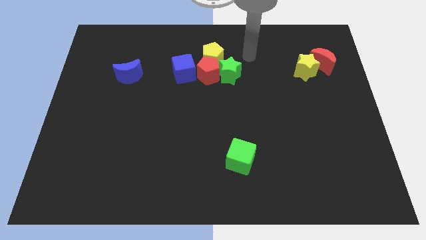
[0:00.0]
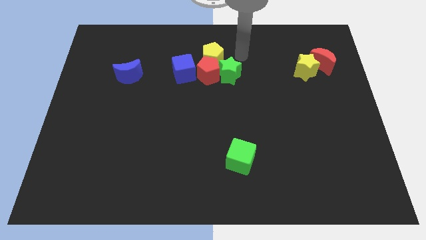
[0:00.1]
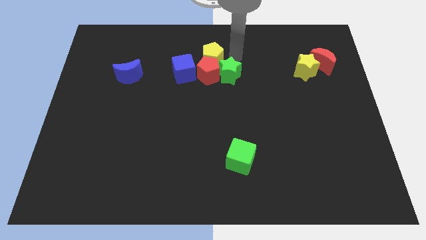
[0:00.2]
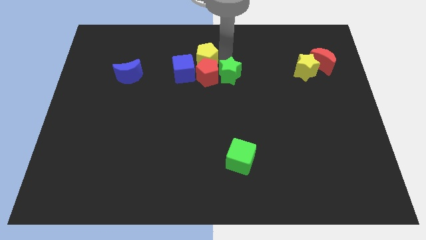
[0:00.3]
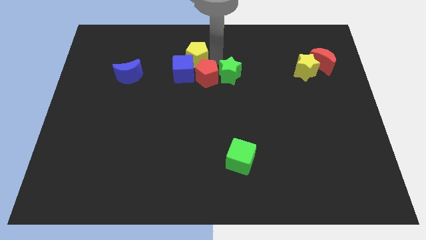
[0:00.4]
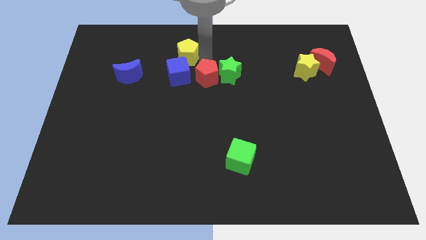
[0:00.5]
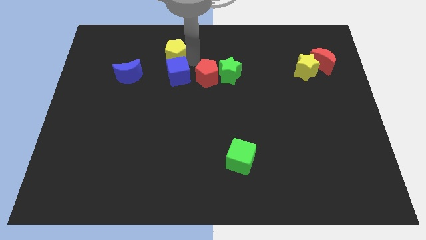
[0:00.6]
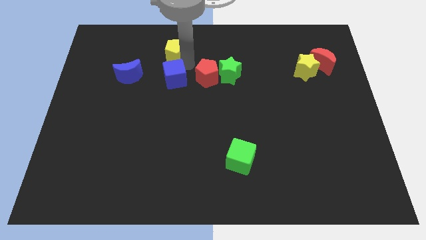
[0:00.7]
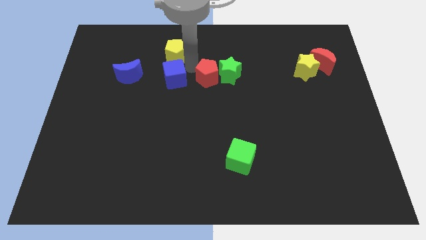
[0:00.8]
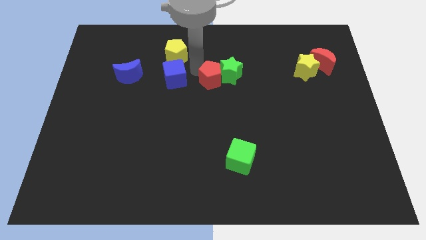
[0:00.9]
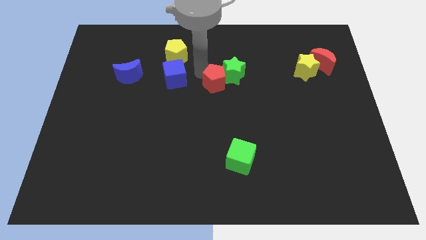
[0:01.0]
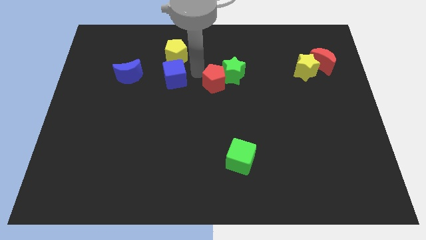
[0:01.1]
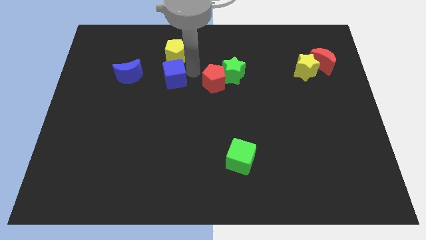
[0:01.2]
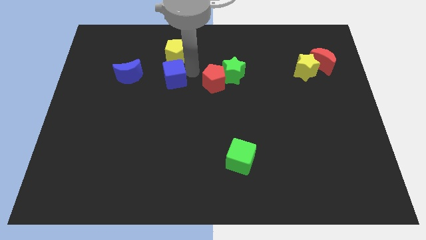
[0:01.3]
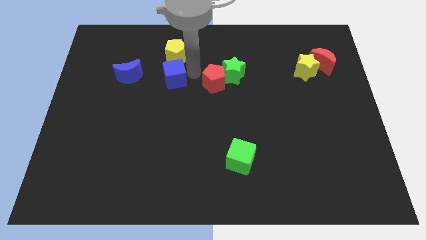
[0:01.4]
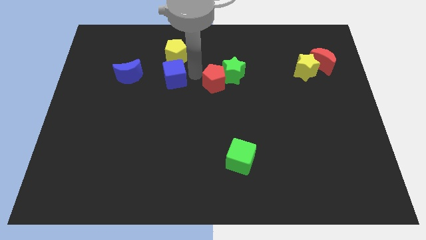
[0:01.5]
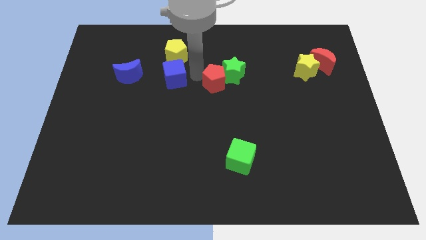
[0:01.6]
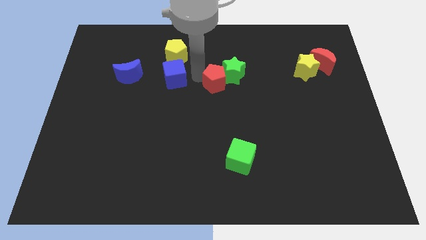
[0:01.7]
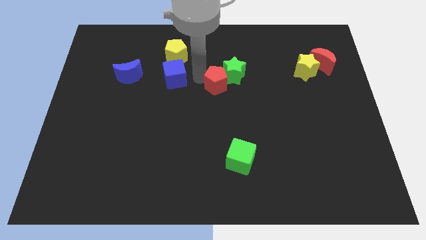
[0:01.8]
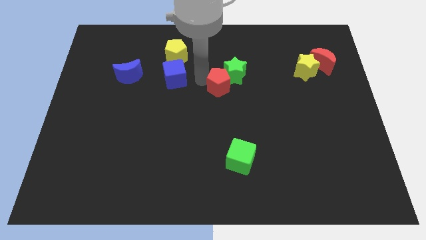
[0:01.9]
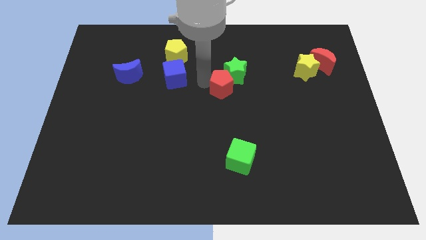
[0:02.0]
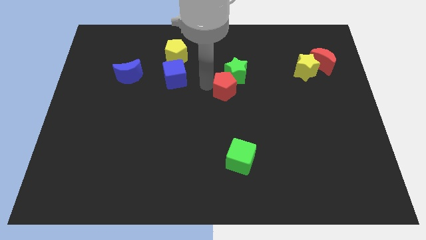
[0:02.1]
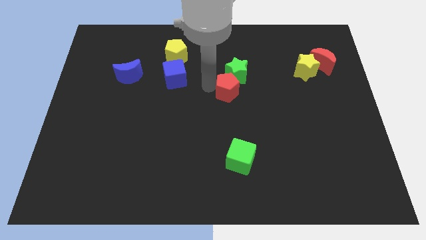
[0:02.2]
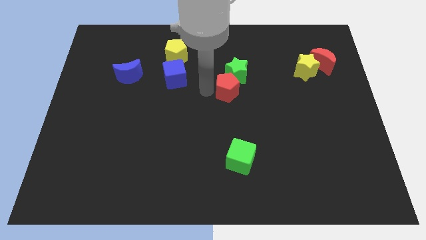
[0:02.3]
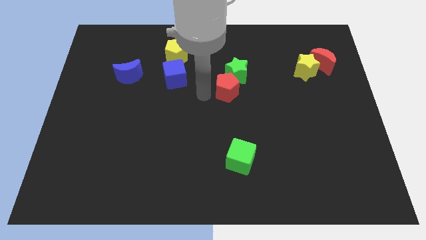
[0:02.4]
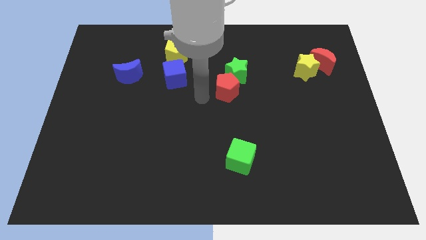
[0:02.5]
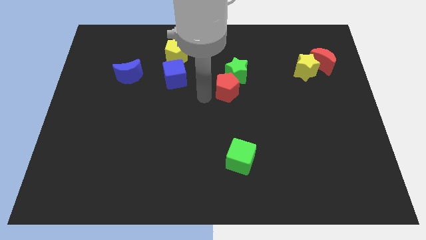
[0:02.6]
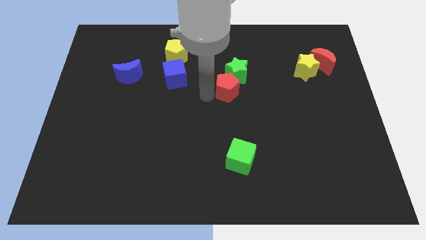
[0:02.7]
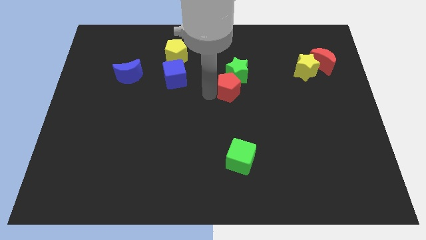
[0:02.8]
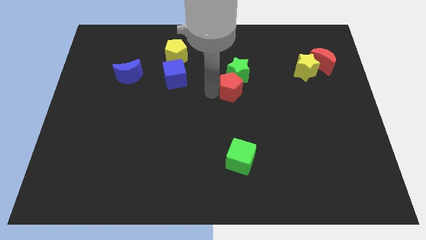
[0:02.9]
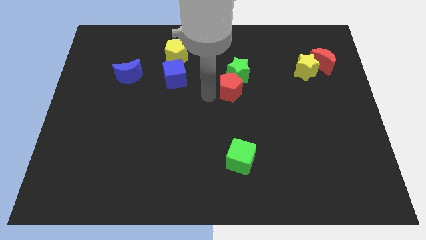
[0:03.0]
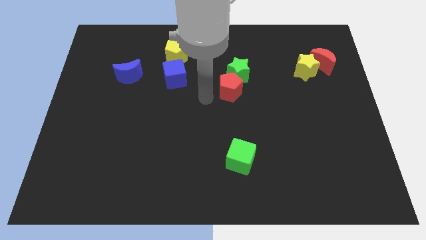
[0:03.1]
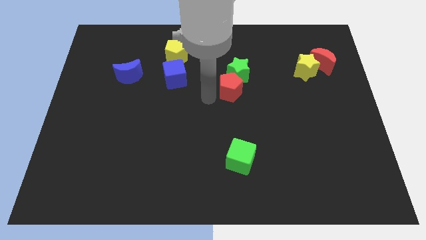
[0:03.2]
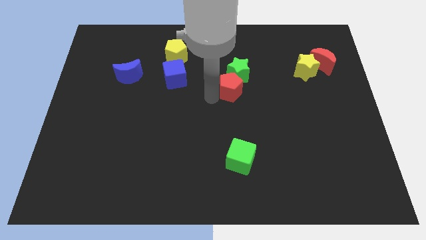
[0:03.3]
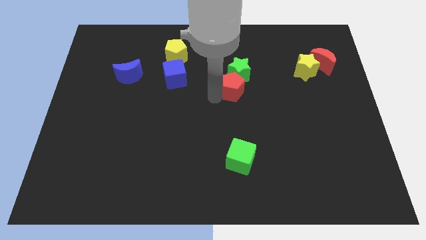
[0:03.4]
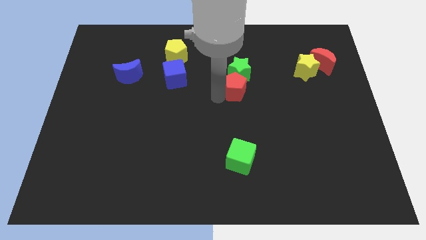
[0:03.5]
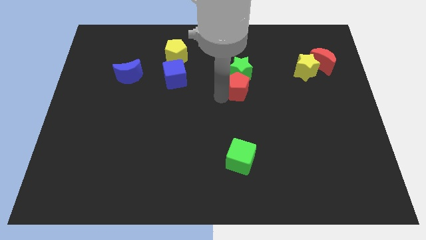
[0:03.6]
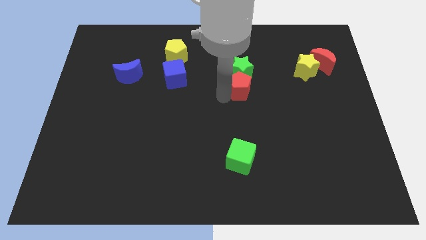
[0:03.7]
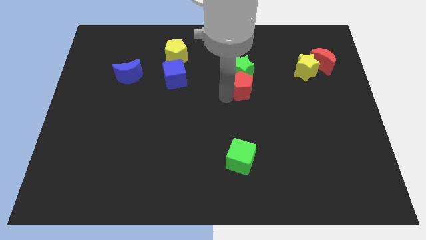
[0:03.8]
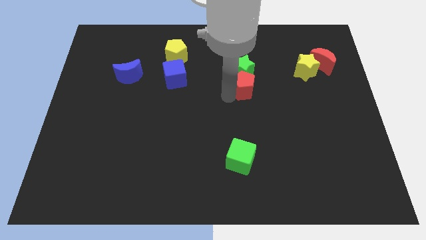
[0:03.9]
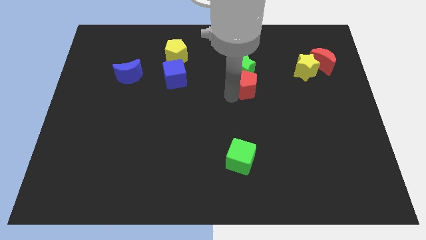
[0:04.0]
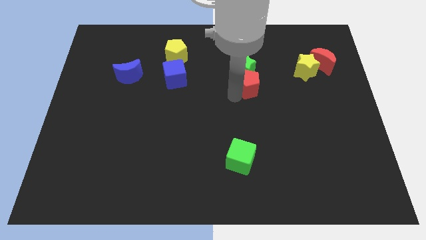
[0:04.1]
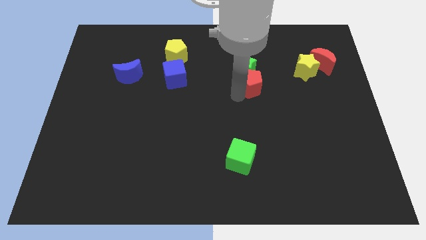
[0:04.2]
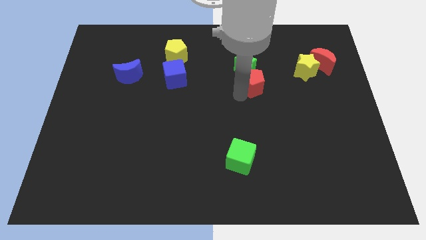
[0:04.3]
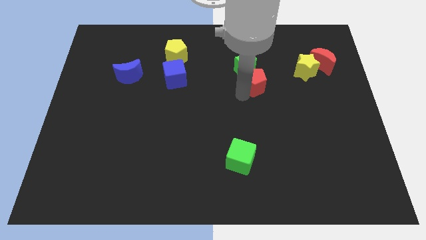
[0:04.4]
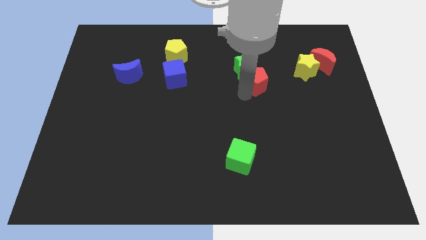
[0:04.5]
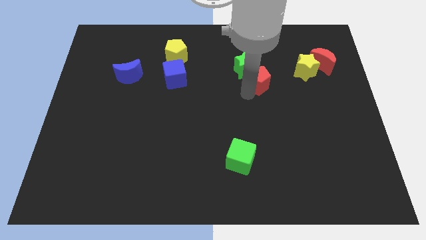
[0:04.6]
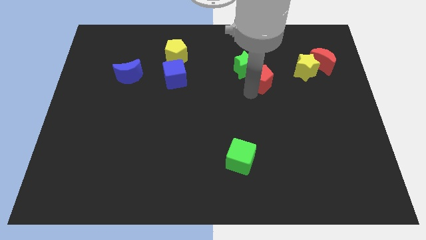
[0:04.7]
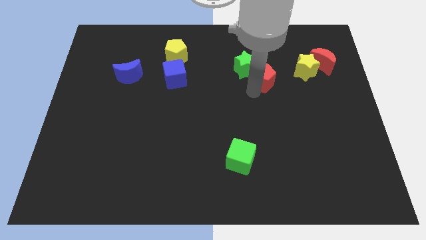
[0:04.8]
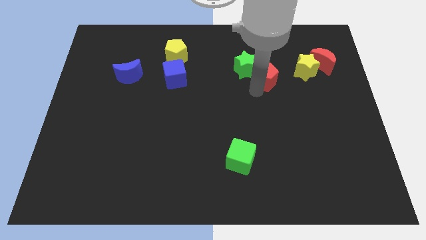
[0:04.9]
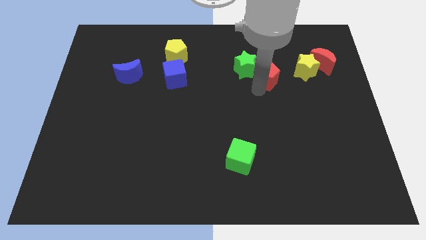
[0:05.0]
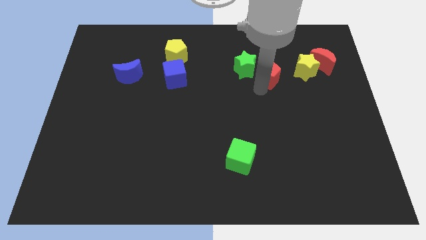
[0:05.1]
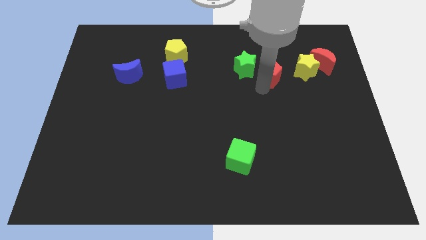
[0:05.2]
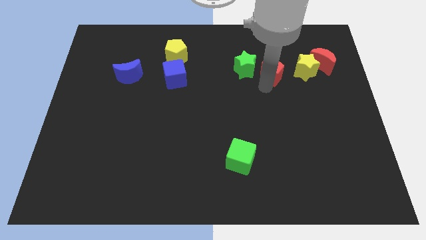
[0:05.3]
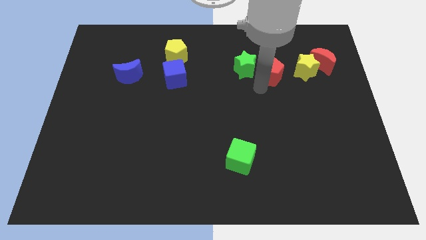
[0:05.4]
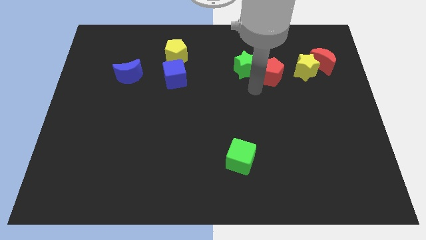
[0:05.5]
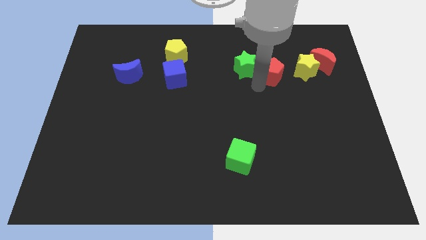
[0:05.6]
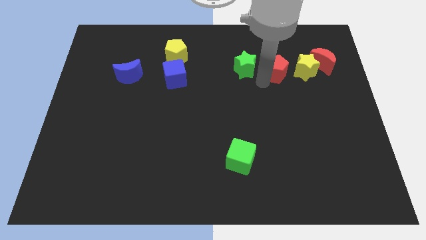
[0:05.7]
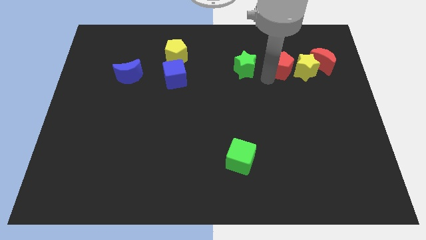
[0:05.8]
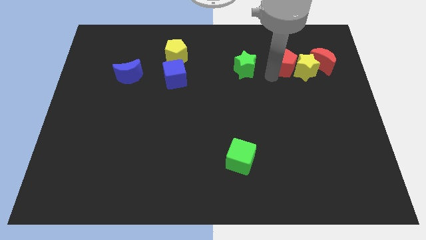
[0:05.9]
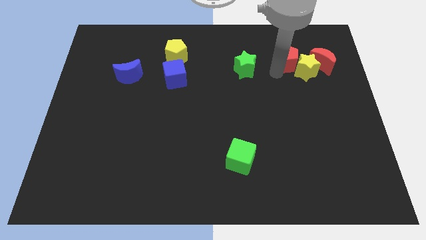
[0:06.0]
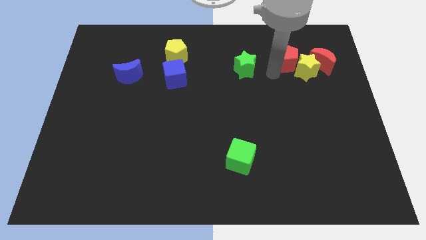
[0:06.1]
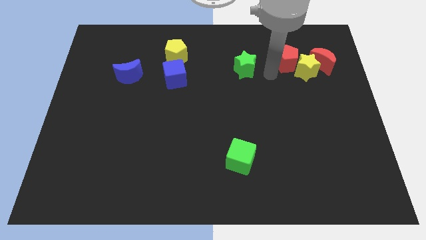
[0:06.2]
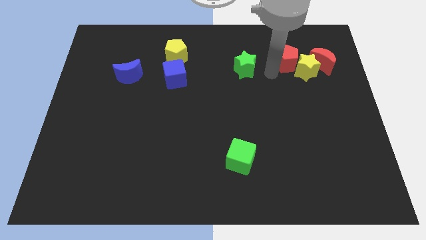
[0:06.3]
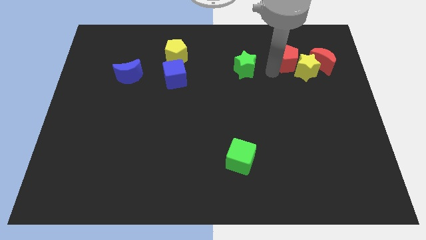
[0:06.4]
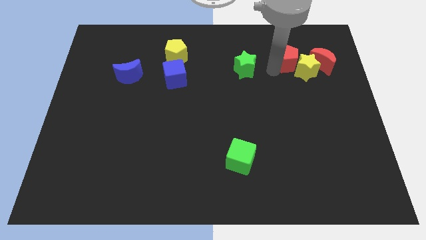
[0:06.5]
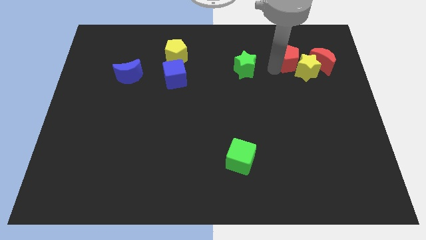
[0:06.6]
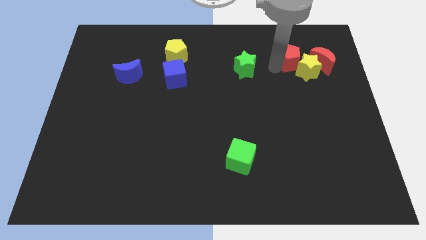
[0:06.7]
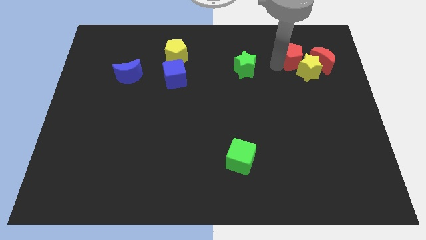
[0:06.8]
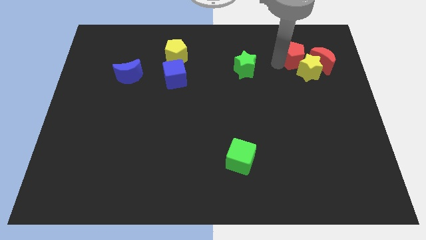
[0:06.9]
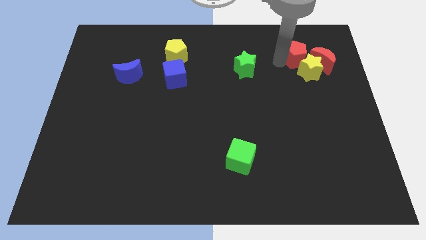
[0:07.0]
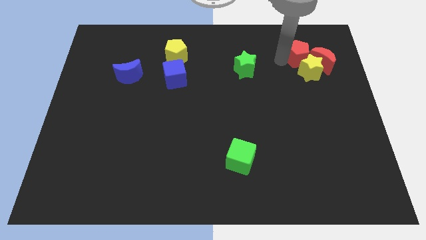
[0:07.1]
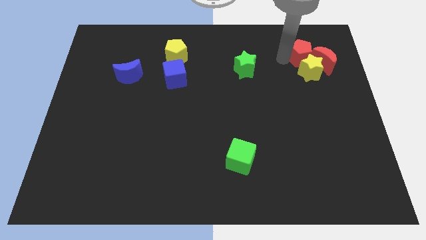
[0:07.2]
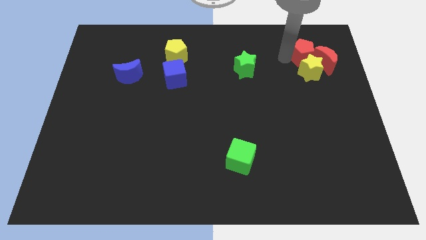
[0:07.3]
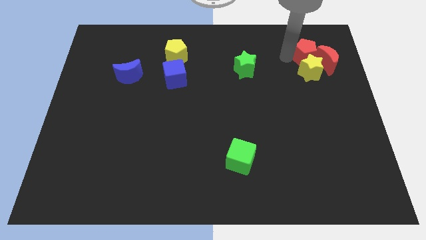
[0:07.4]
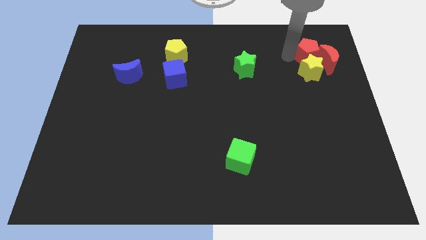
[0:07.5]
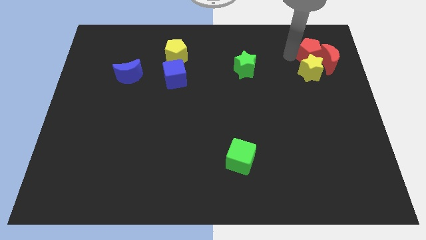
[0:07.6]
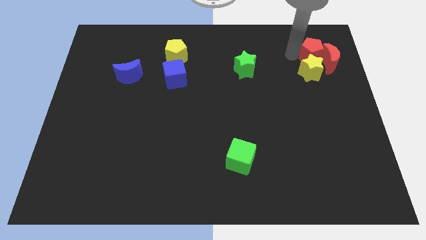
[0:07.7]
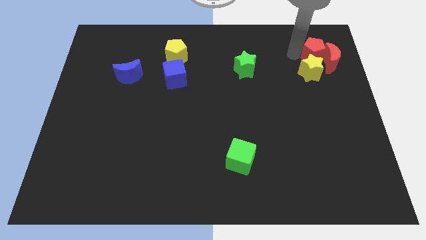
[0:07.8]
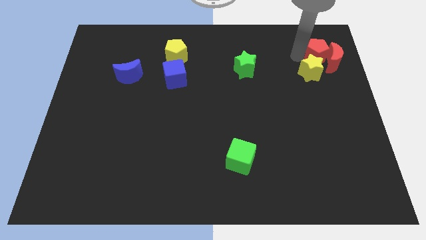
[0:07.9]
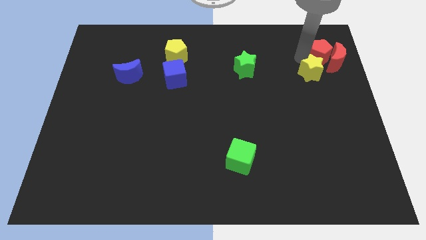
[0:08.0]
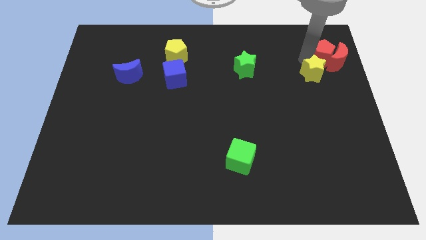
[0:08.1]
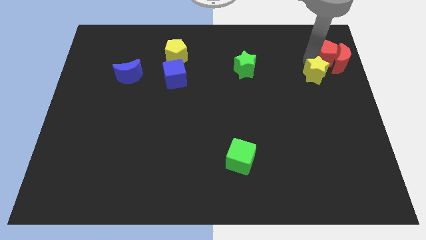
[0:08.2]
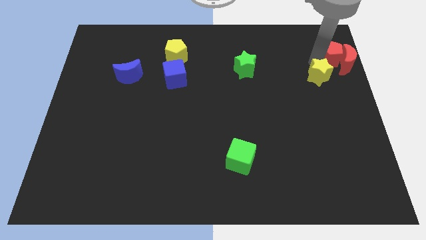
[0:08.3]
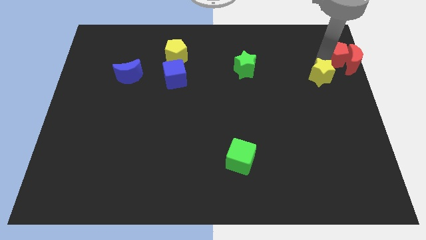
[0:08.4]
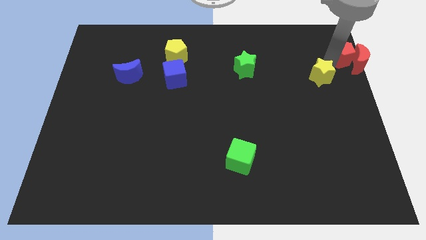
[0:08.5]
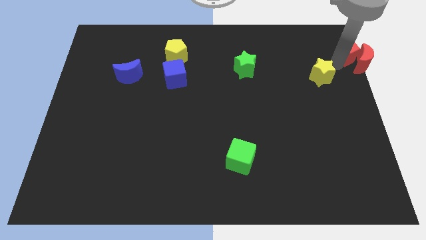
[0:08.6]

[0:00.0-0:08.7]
slide the red pentagon to the top right of the board
